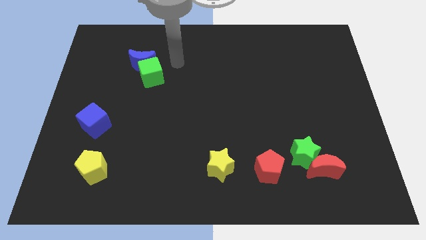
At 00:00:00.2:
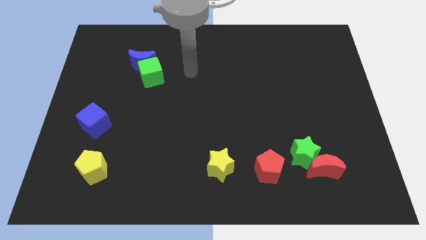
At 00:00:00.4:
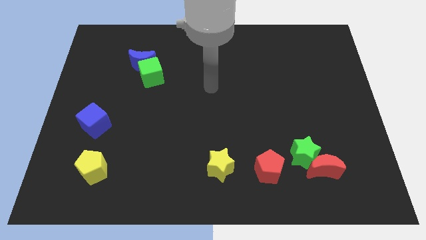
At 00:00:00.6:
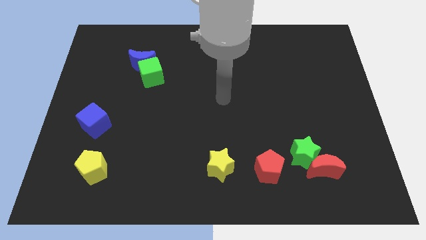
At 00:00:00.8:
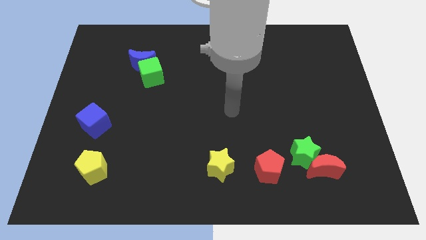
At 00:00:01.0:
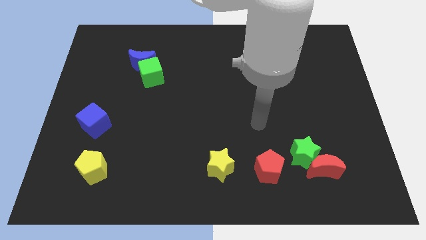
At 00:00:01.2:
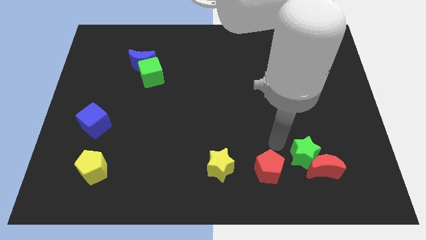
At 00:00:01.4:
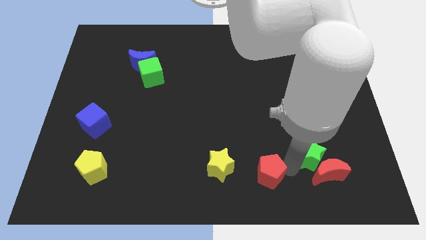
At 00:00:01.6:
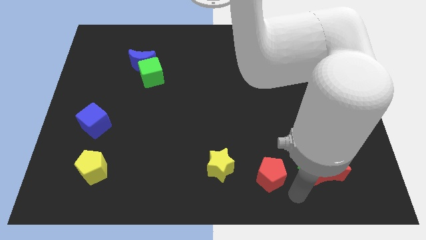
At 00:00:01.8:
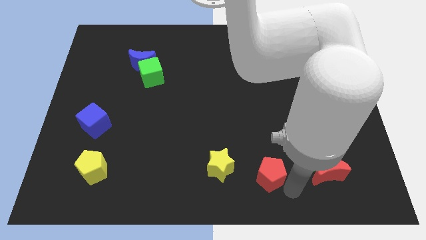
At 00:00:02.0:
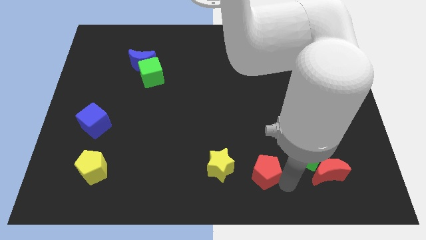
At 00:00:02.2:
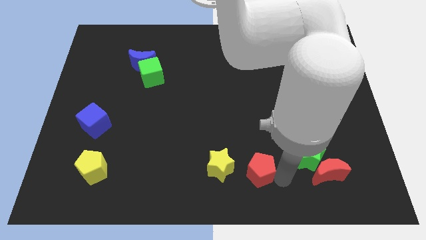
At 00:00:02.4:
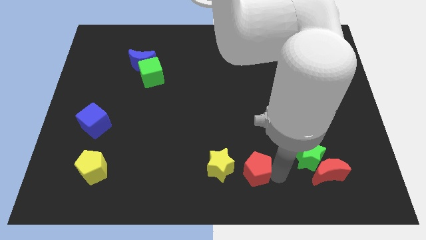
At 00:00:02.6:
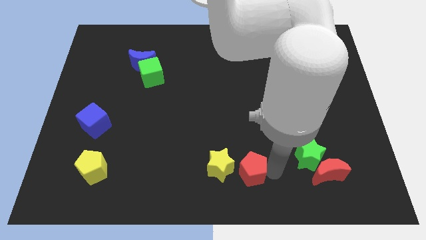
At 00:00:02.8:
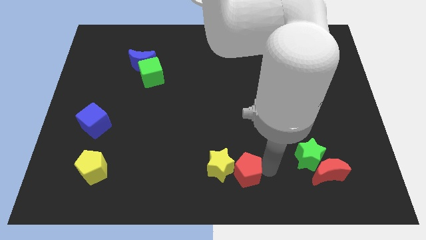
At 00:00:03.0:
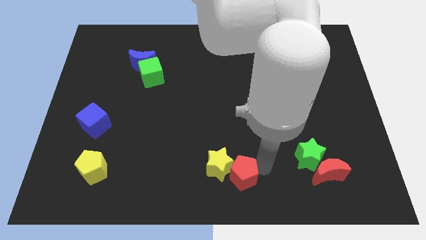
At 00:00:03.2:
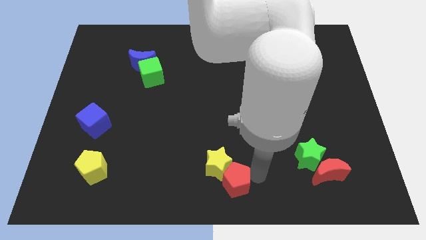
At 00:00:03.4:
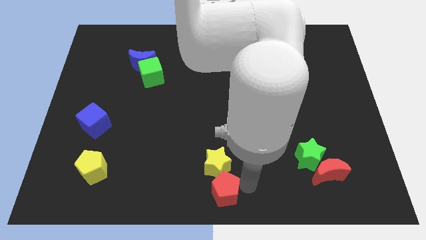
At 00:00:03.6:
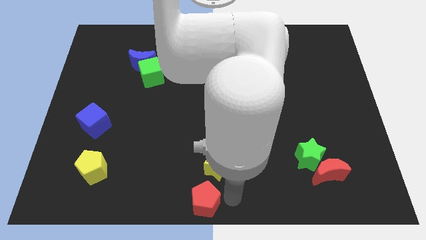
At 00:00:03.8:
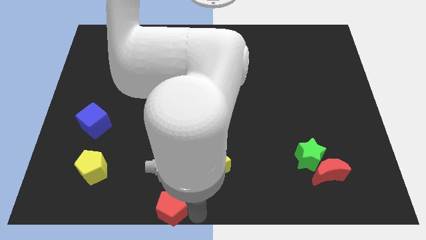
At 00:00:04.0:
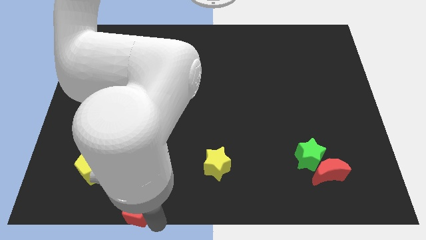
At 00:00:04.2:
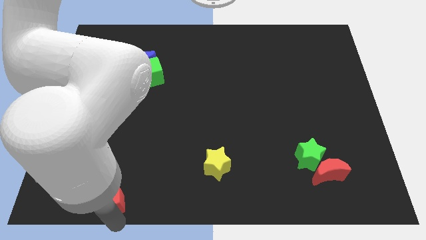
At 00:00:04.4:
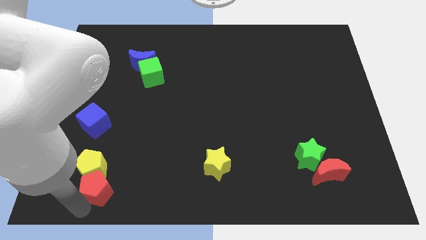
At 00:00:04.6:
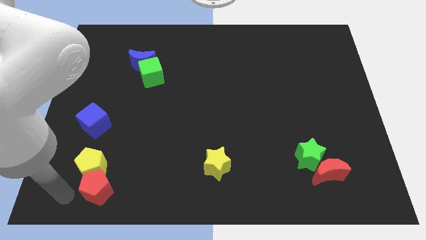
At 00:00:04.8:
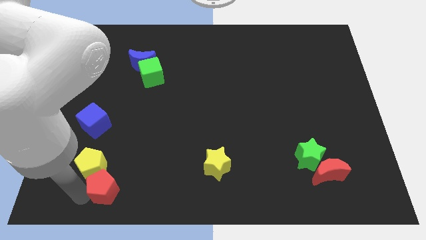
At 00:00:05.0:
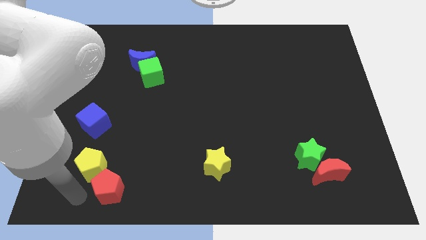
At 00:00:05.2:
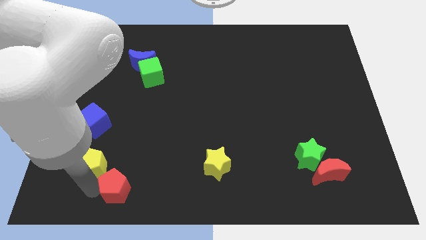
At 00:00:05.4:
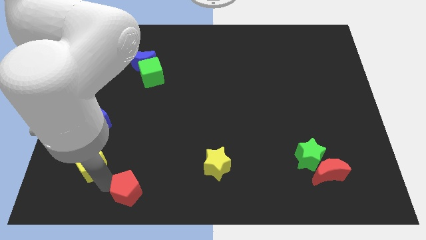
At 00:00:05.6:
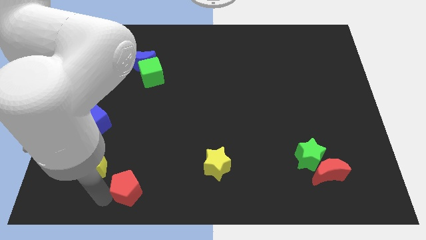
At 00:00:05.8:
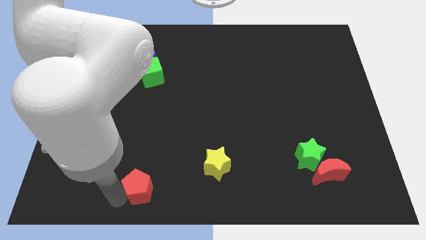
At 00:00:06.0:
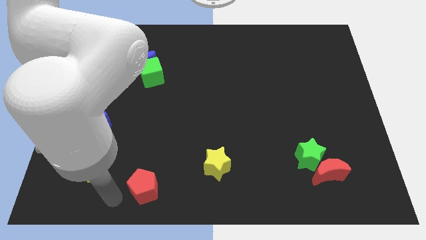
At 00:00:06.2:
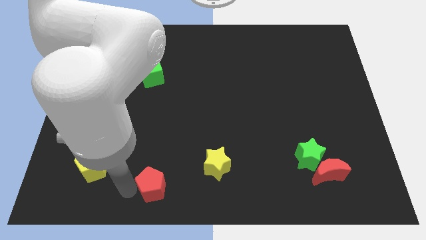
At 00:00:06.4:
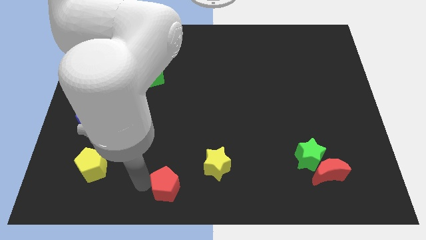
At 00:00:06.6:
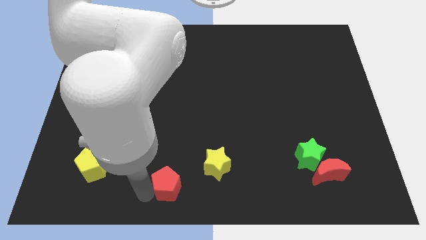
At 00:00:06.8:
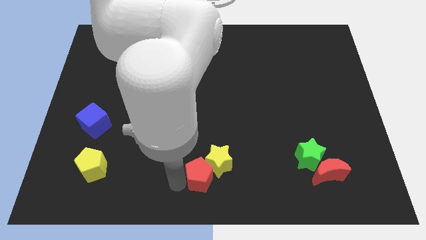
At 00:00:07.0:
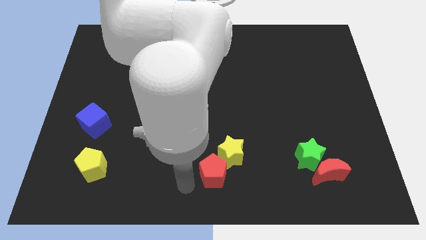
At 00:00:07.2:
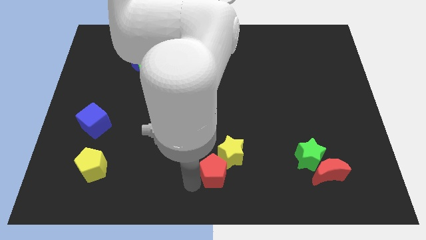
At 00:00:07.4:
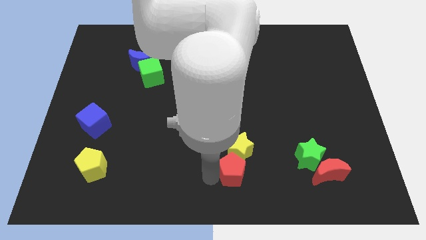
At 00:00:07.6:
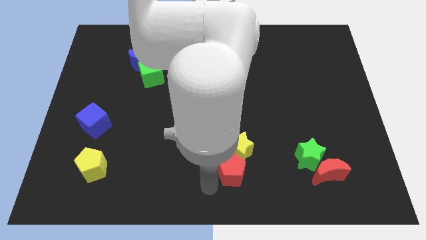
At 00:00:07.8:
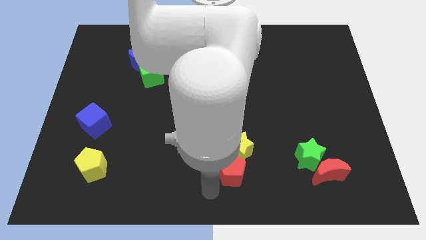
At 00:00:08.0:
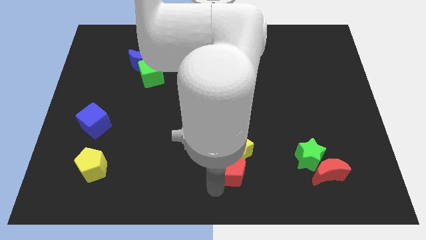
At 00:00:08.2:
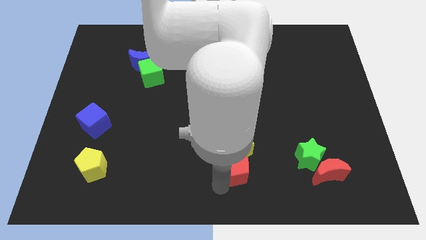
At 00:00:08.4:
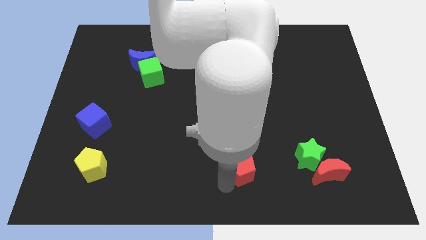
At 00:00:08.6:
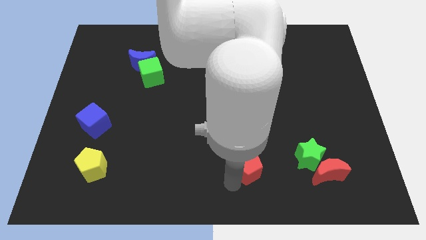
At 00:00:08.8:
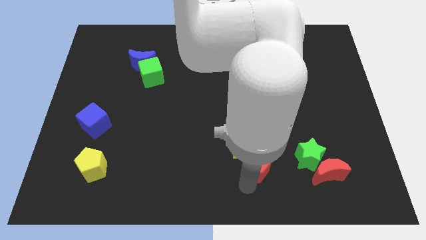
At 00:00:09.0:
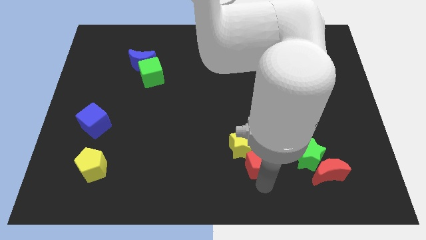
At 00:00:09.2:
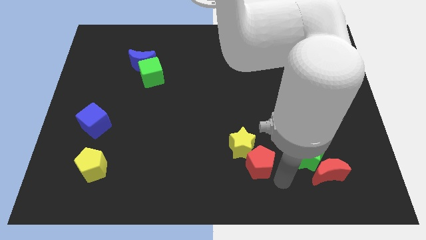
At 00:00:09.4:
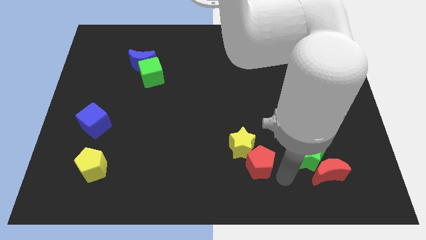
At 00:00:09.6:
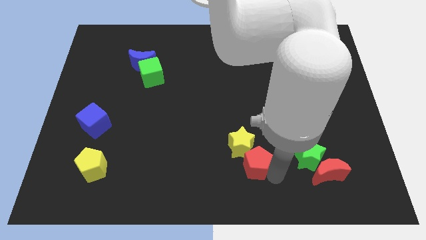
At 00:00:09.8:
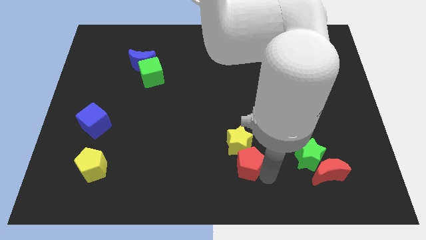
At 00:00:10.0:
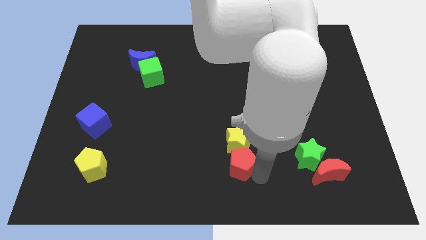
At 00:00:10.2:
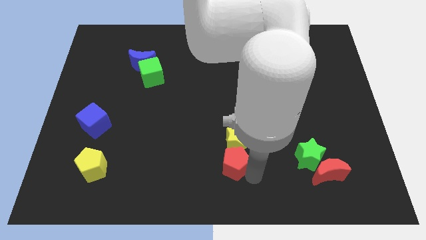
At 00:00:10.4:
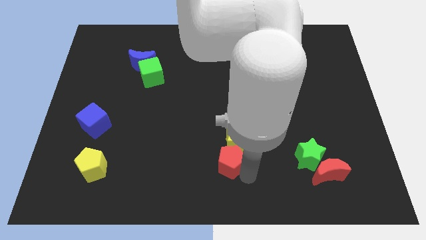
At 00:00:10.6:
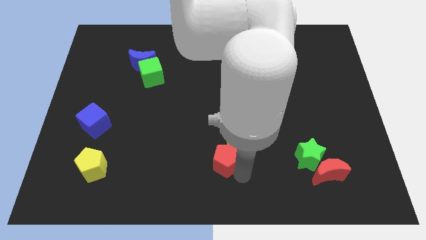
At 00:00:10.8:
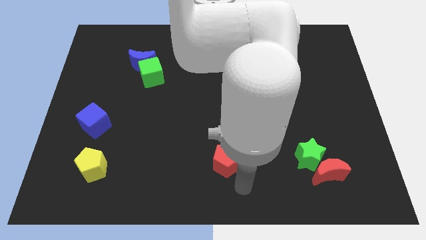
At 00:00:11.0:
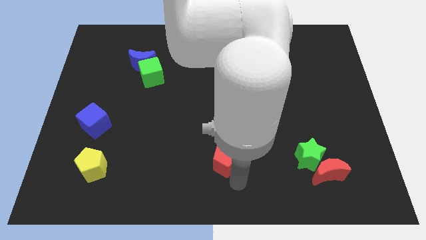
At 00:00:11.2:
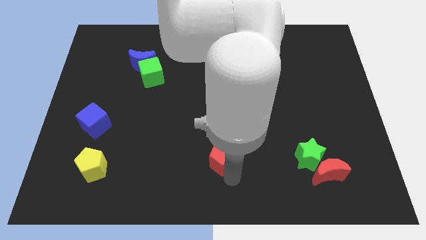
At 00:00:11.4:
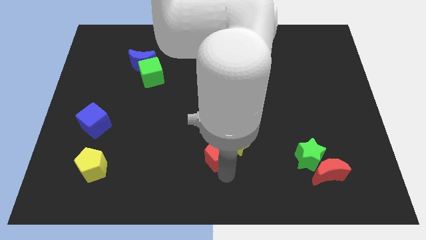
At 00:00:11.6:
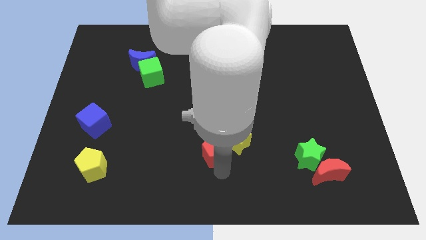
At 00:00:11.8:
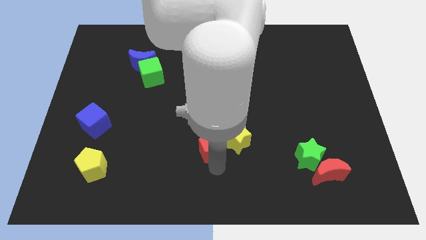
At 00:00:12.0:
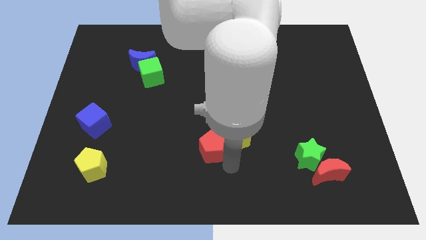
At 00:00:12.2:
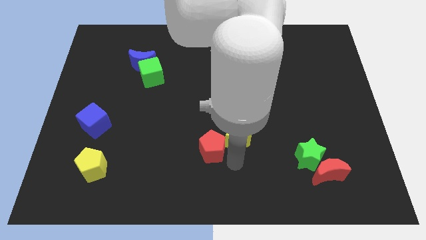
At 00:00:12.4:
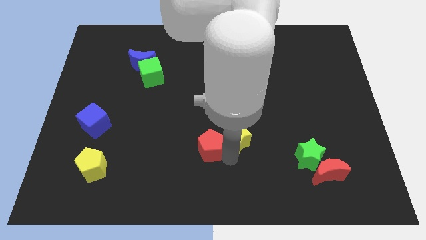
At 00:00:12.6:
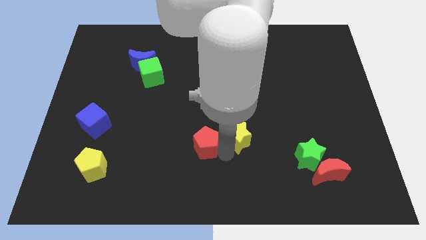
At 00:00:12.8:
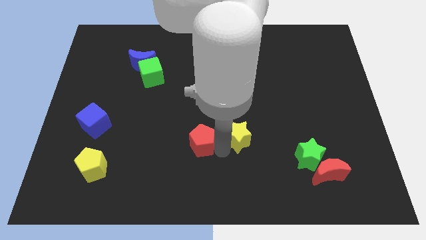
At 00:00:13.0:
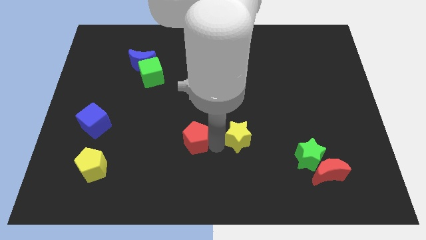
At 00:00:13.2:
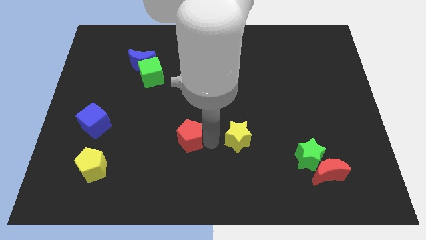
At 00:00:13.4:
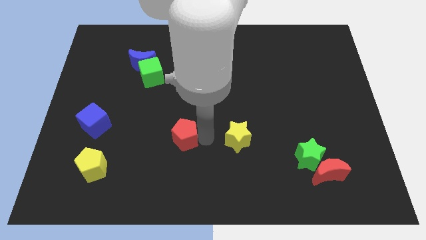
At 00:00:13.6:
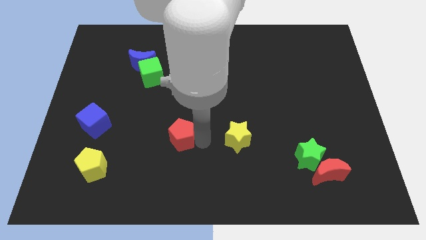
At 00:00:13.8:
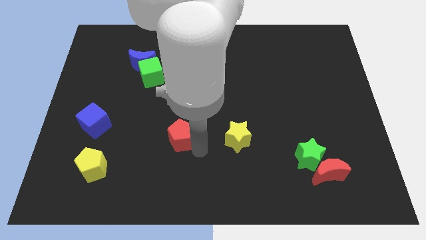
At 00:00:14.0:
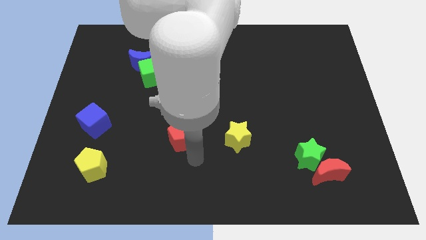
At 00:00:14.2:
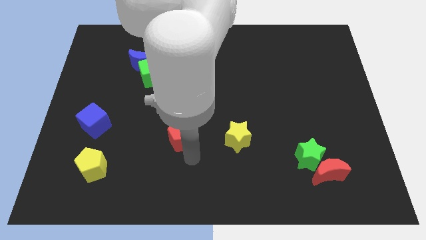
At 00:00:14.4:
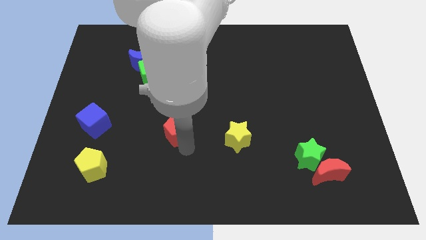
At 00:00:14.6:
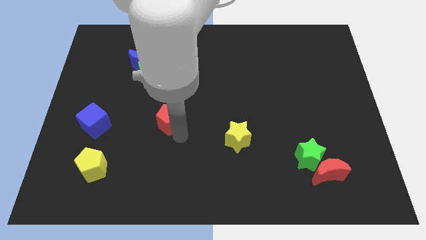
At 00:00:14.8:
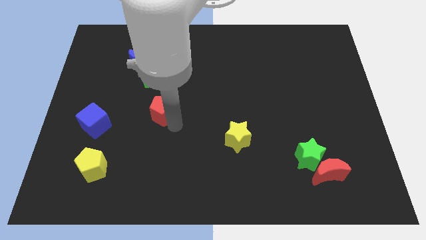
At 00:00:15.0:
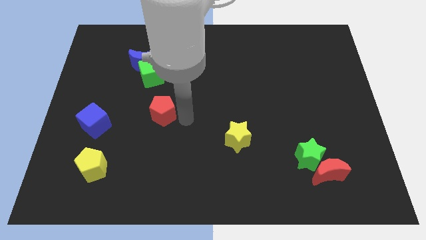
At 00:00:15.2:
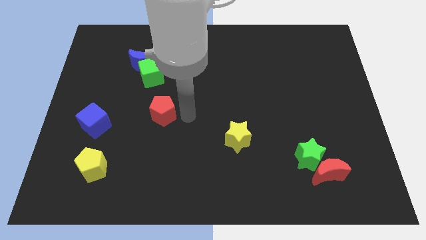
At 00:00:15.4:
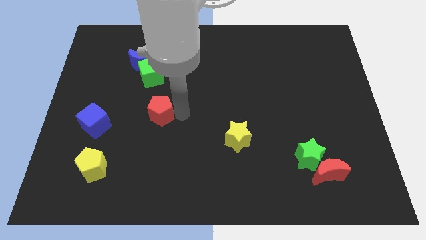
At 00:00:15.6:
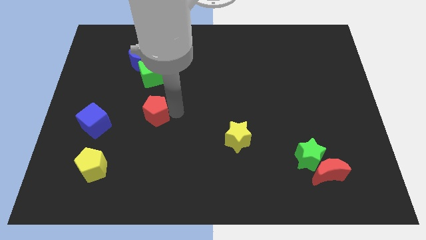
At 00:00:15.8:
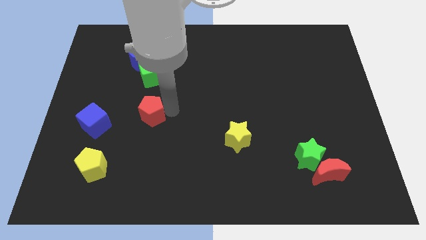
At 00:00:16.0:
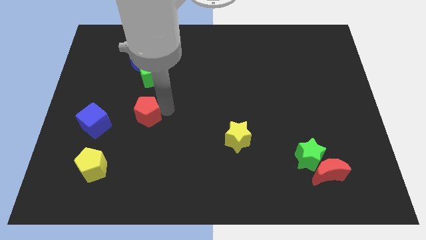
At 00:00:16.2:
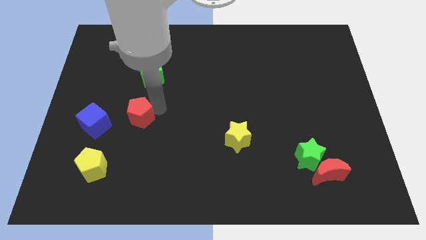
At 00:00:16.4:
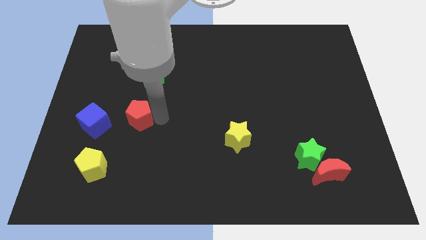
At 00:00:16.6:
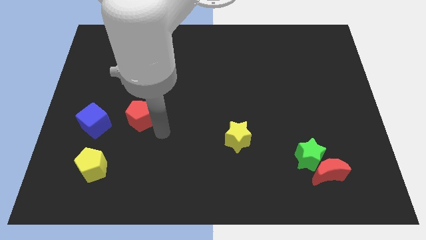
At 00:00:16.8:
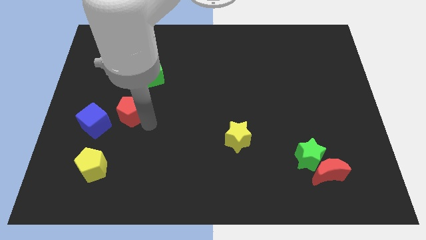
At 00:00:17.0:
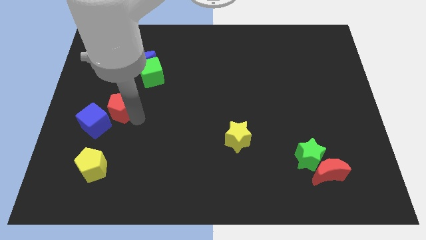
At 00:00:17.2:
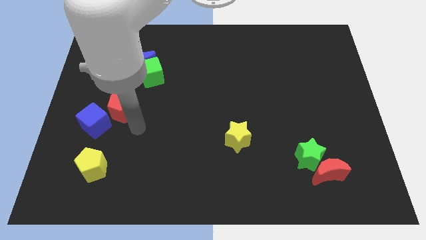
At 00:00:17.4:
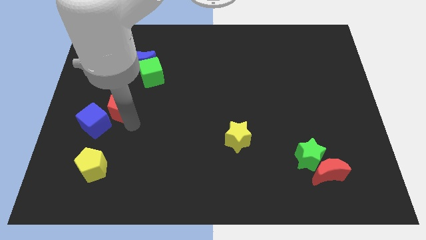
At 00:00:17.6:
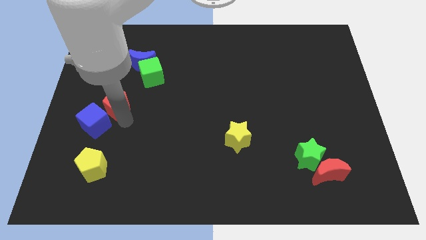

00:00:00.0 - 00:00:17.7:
put the red pentagon to the top of the blue cube
